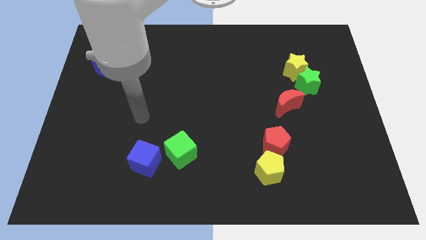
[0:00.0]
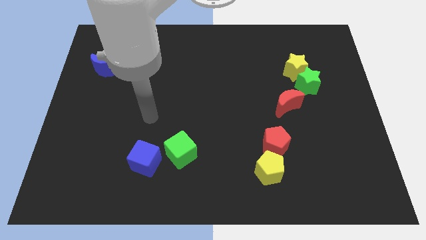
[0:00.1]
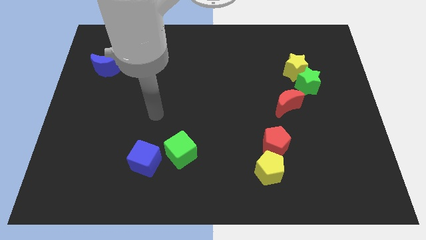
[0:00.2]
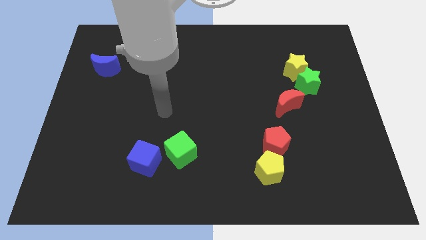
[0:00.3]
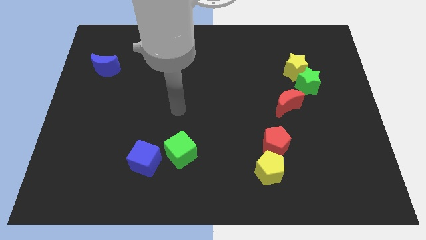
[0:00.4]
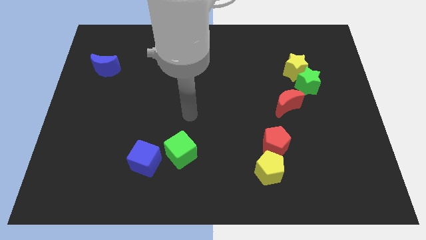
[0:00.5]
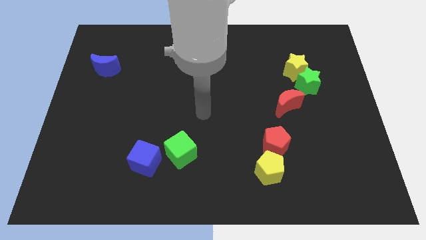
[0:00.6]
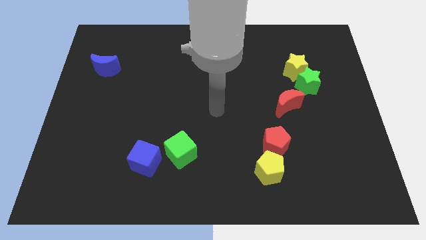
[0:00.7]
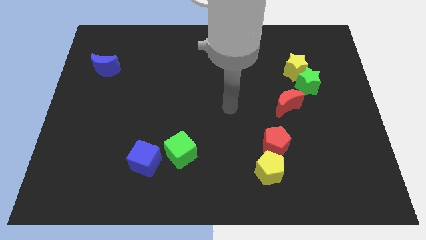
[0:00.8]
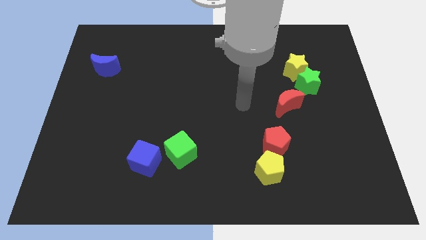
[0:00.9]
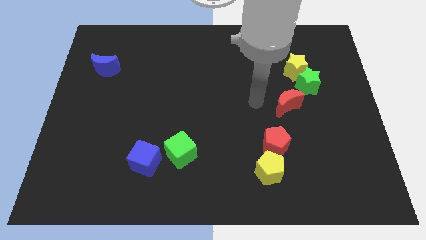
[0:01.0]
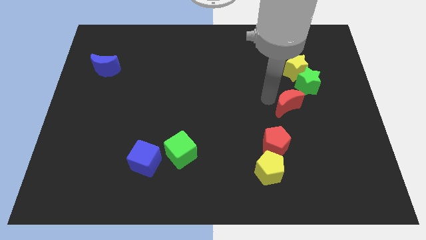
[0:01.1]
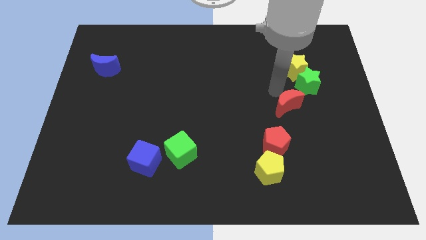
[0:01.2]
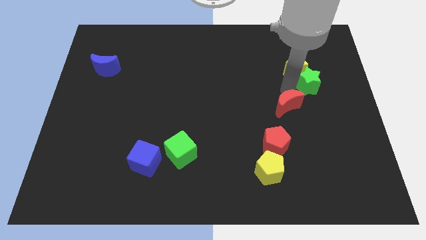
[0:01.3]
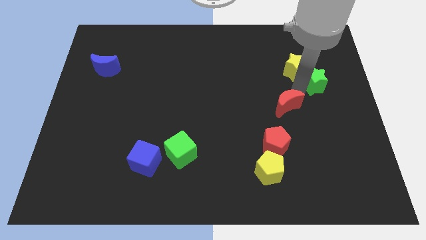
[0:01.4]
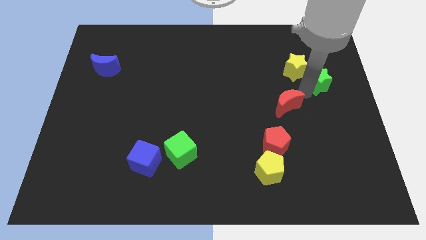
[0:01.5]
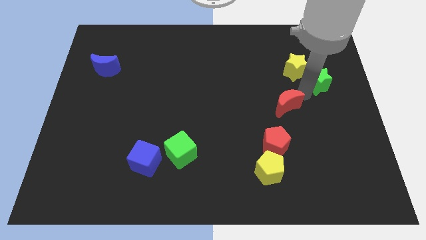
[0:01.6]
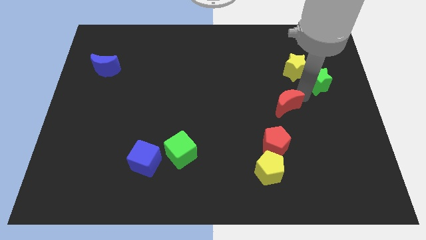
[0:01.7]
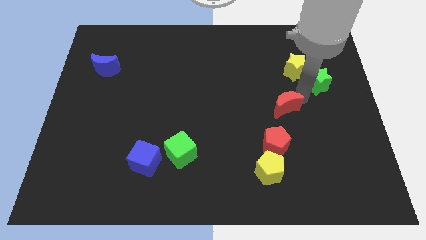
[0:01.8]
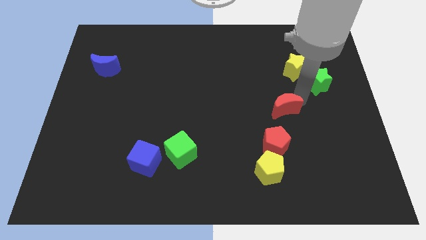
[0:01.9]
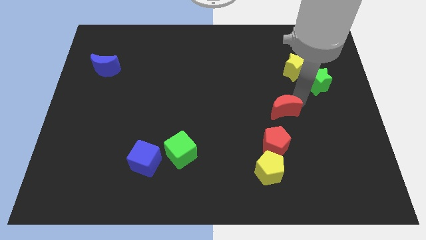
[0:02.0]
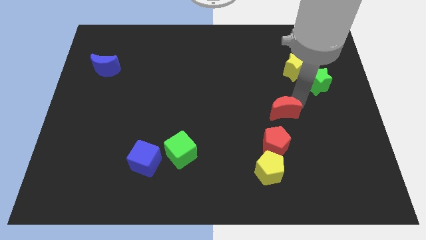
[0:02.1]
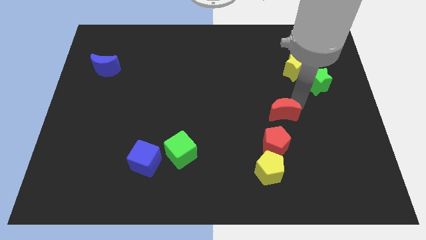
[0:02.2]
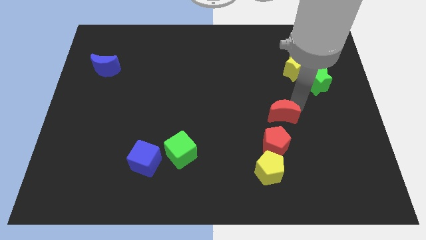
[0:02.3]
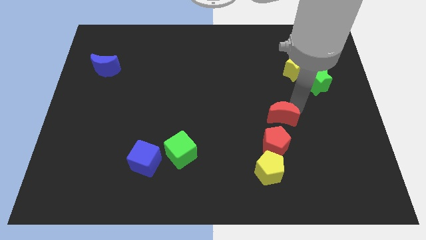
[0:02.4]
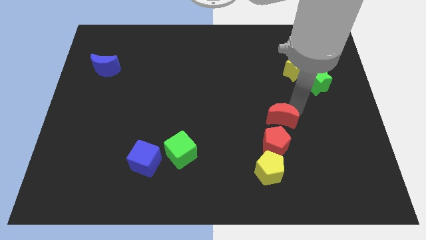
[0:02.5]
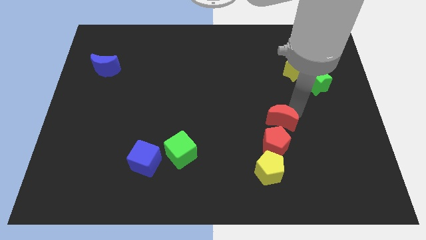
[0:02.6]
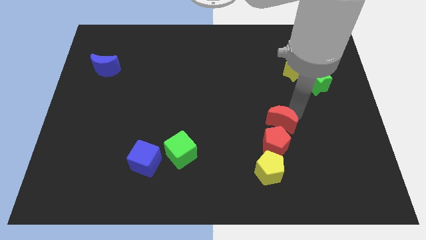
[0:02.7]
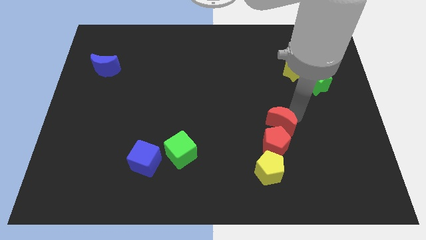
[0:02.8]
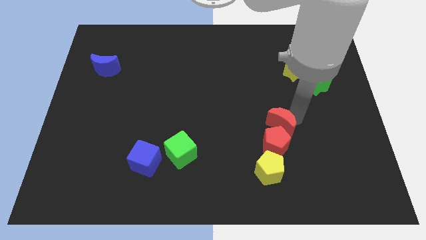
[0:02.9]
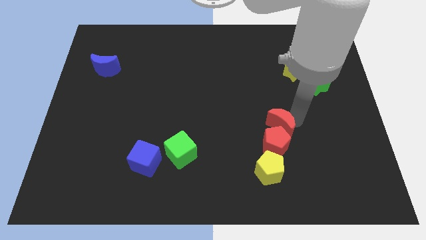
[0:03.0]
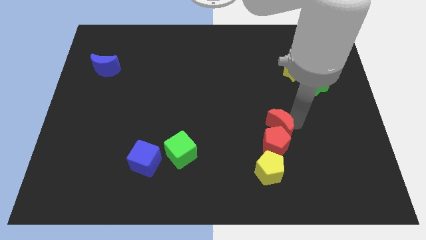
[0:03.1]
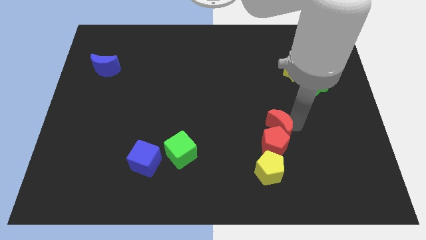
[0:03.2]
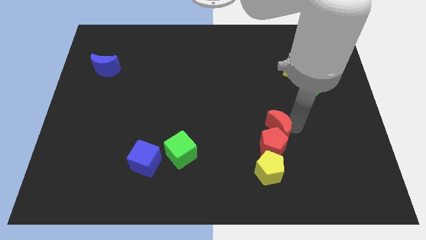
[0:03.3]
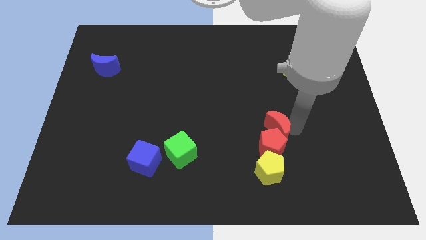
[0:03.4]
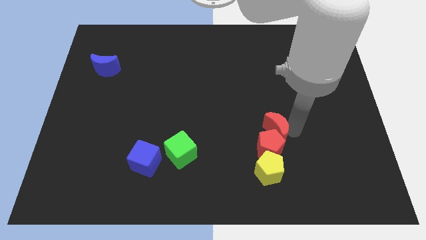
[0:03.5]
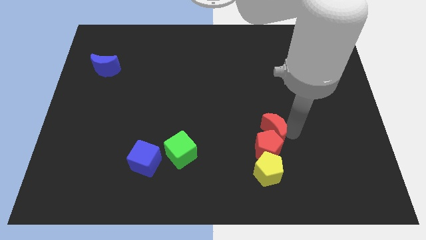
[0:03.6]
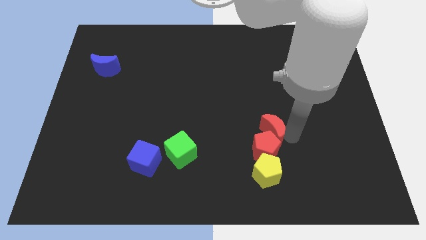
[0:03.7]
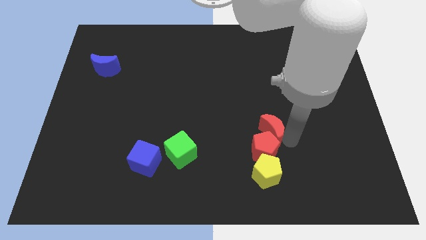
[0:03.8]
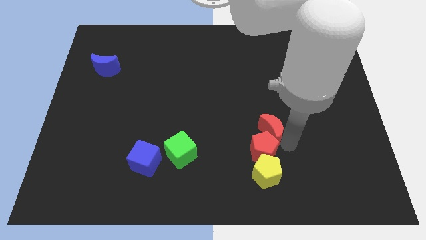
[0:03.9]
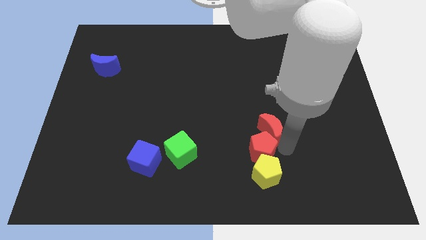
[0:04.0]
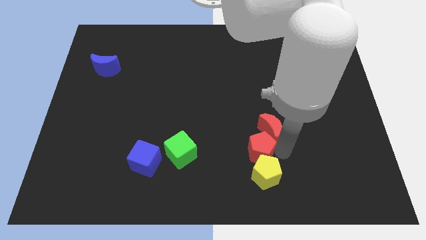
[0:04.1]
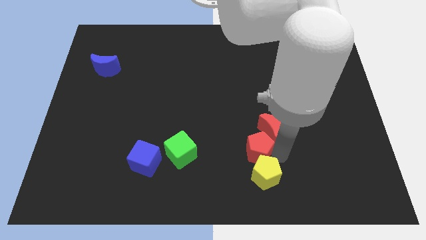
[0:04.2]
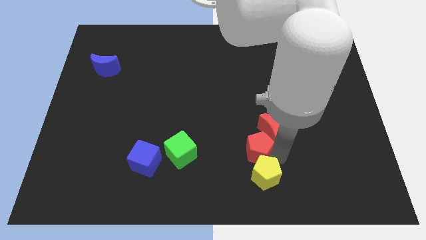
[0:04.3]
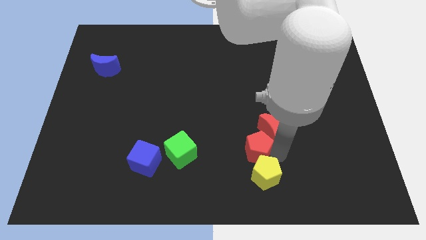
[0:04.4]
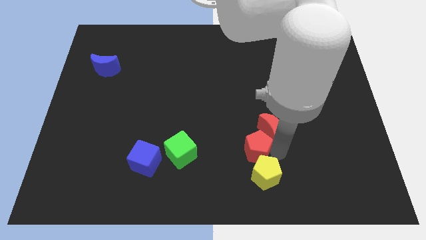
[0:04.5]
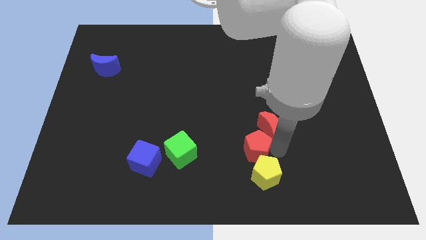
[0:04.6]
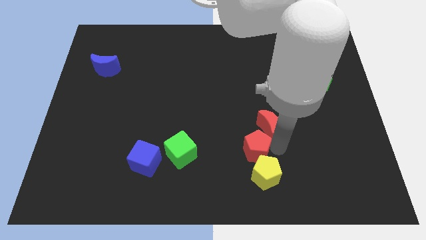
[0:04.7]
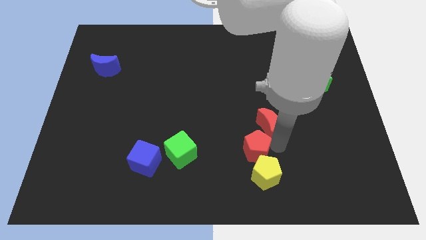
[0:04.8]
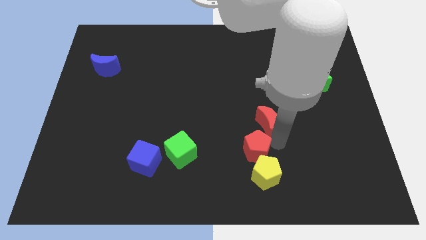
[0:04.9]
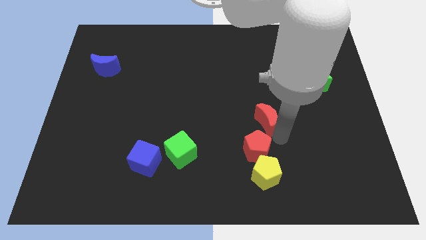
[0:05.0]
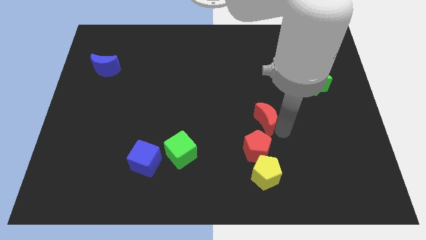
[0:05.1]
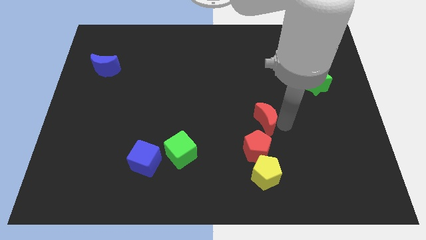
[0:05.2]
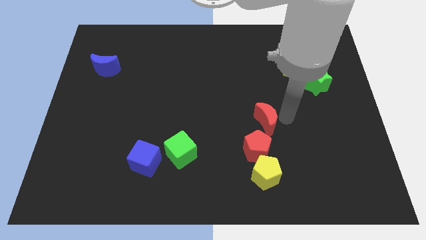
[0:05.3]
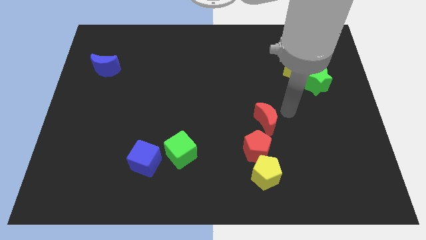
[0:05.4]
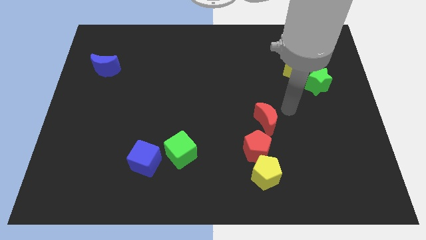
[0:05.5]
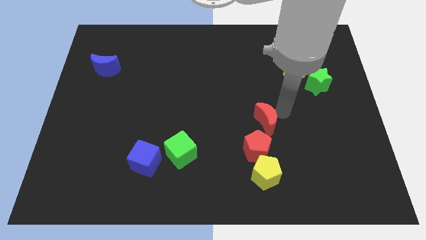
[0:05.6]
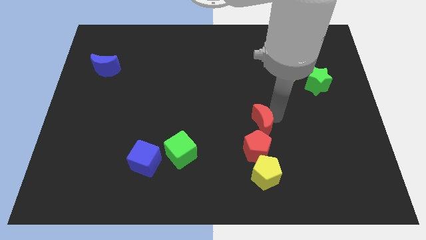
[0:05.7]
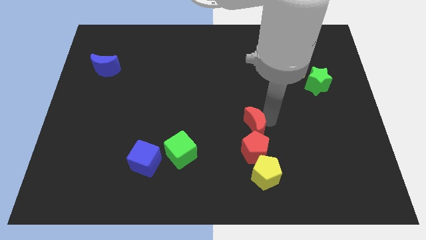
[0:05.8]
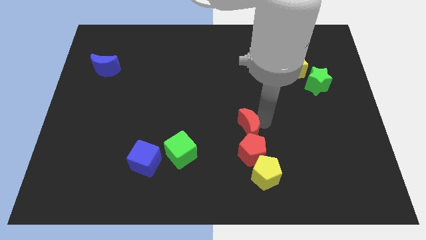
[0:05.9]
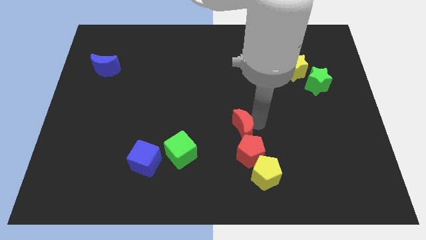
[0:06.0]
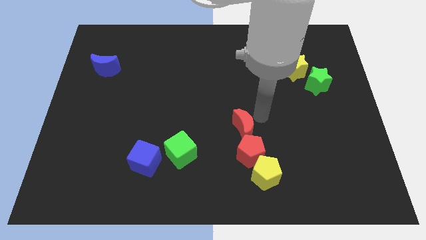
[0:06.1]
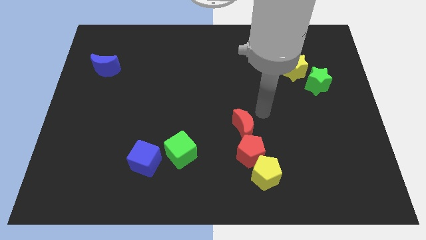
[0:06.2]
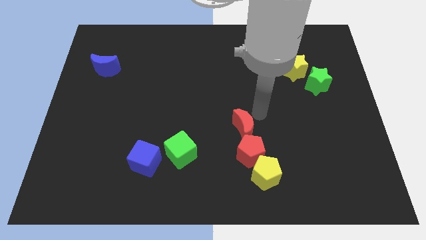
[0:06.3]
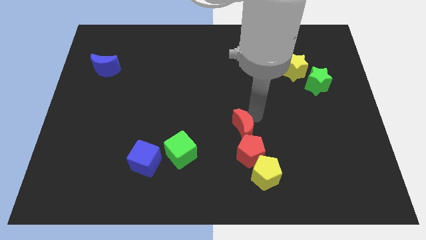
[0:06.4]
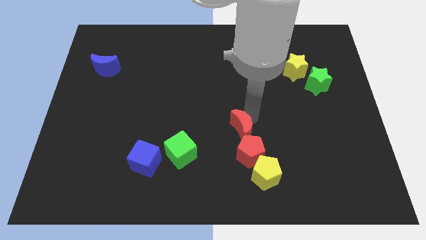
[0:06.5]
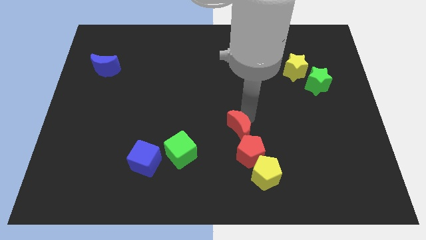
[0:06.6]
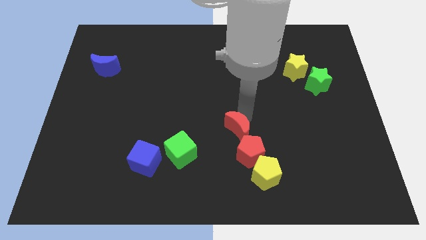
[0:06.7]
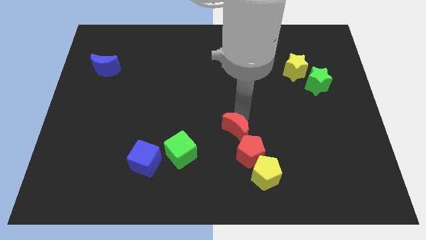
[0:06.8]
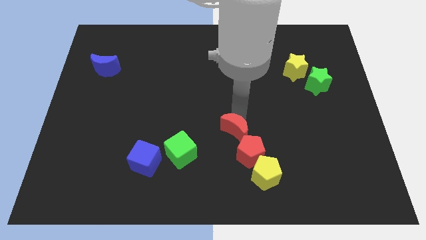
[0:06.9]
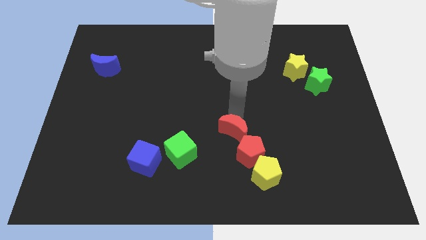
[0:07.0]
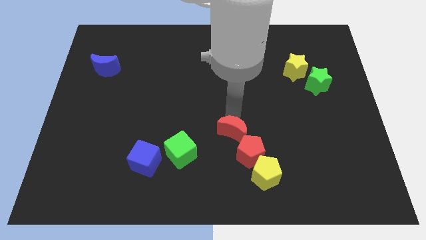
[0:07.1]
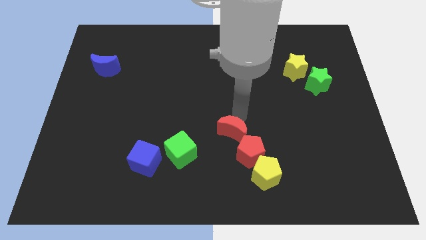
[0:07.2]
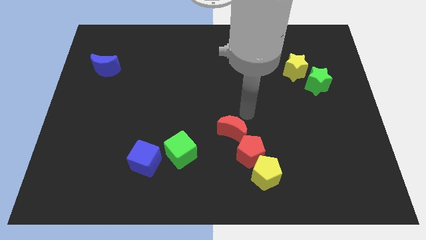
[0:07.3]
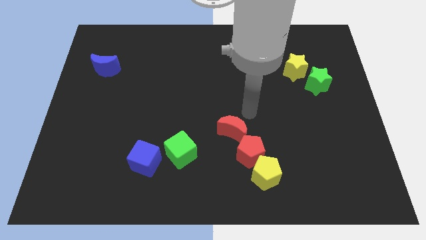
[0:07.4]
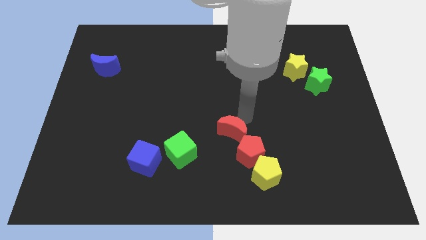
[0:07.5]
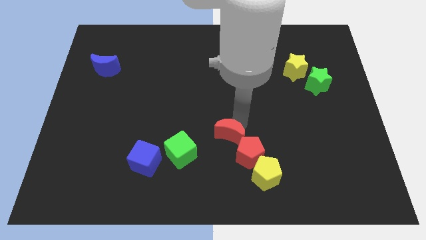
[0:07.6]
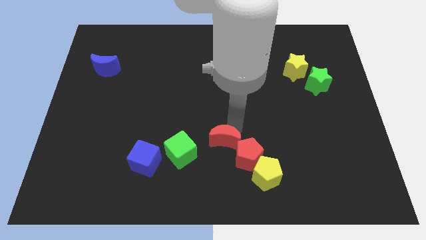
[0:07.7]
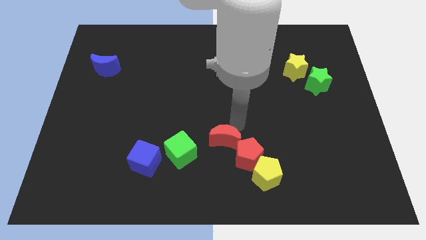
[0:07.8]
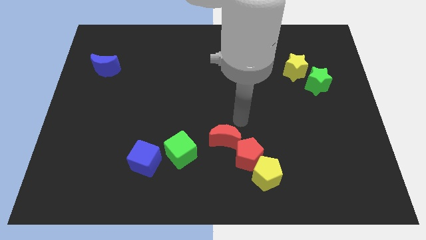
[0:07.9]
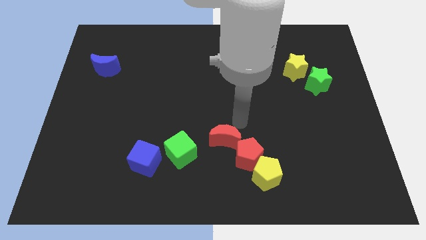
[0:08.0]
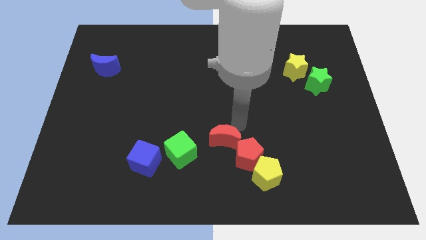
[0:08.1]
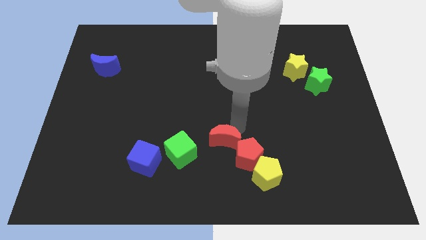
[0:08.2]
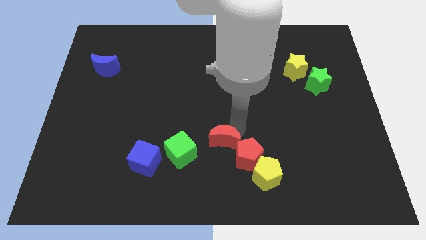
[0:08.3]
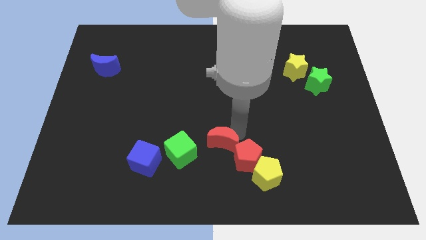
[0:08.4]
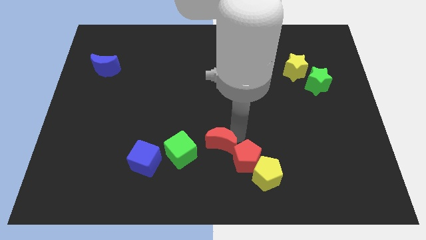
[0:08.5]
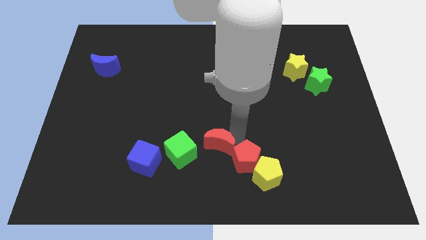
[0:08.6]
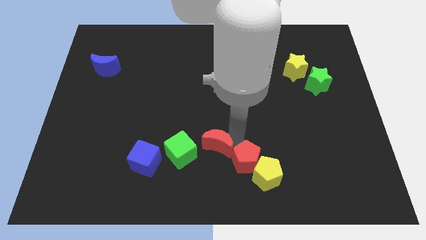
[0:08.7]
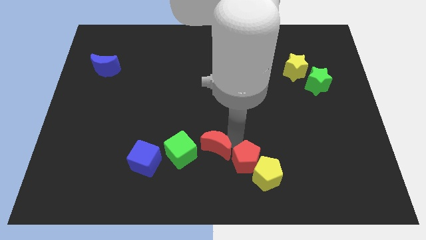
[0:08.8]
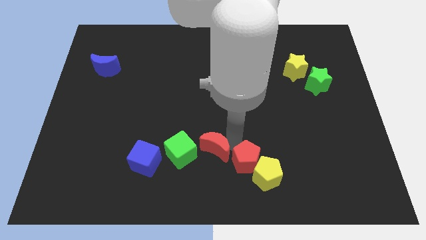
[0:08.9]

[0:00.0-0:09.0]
push the red moon right of the blue cube
